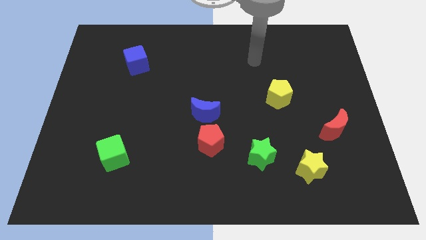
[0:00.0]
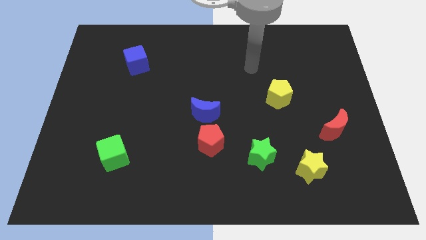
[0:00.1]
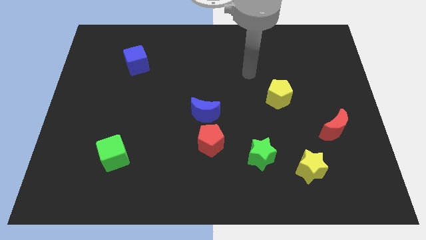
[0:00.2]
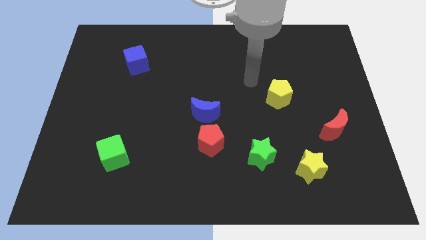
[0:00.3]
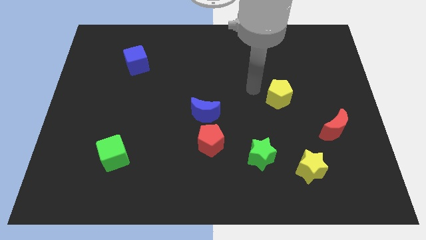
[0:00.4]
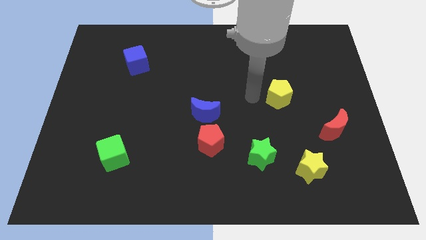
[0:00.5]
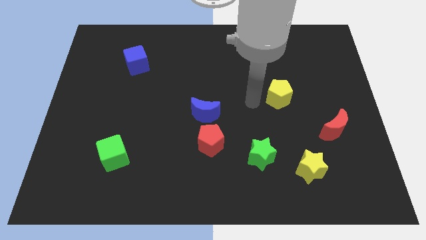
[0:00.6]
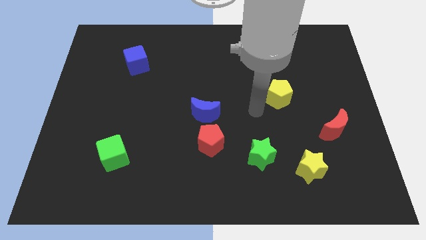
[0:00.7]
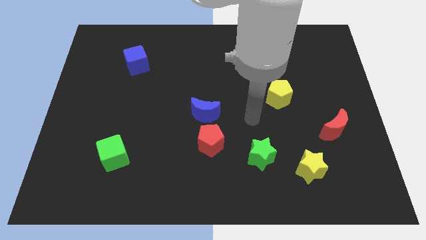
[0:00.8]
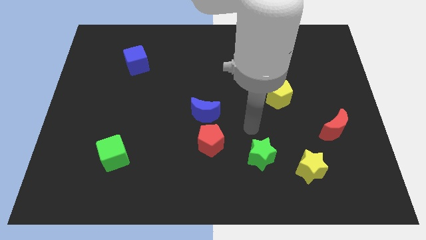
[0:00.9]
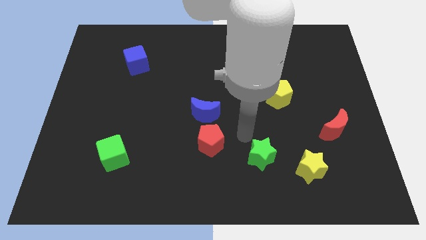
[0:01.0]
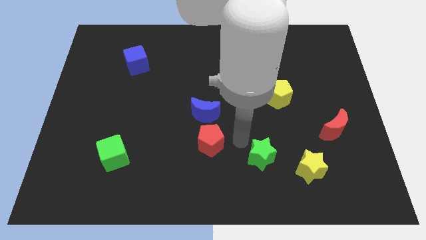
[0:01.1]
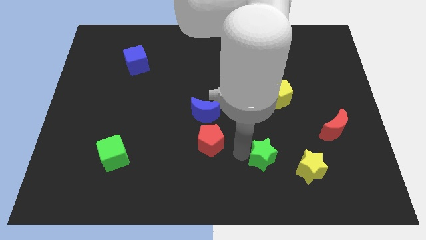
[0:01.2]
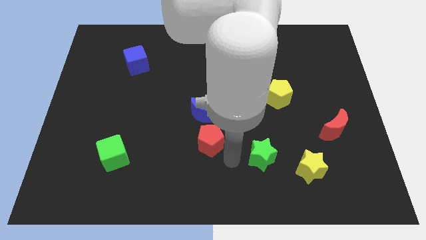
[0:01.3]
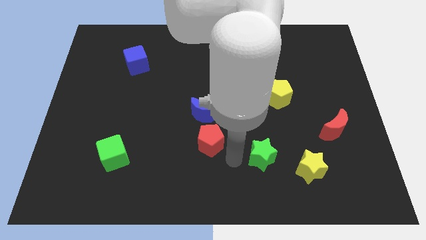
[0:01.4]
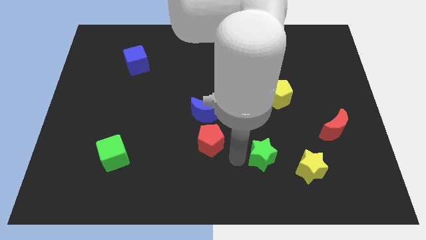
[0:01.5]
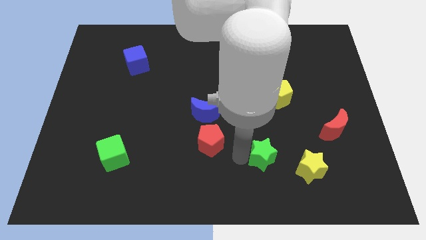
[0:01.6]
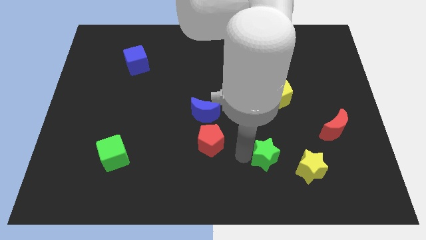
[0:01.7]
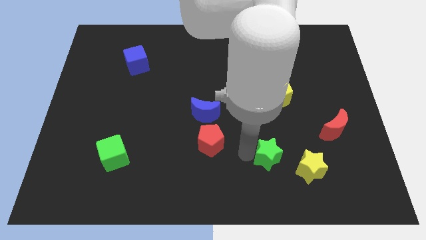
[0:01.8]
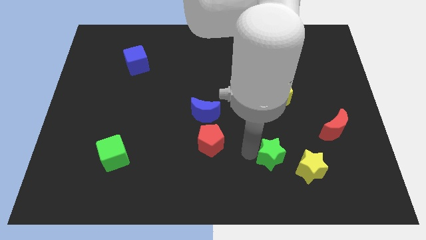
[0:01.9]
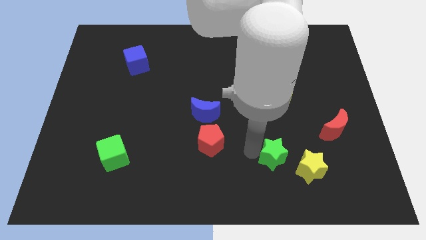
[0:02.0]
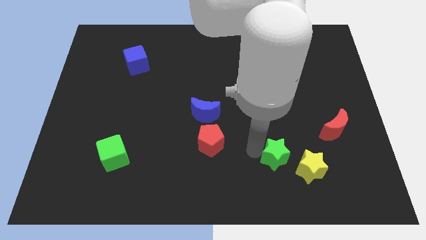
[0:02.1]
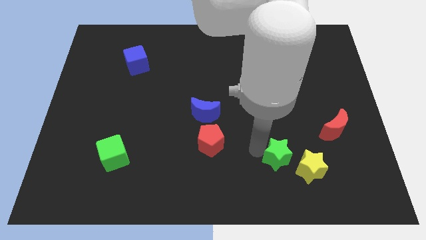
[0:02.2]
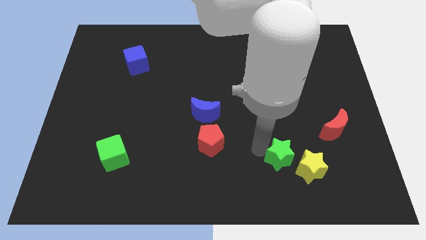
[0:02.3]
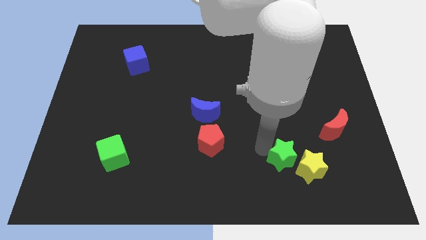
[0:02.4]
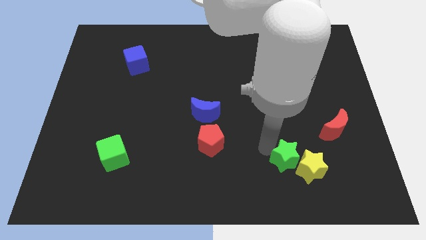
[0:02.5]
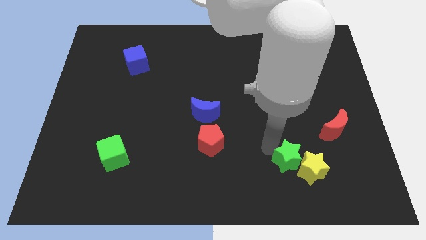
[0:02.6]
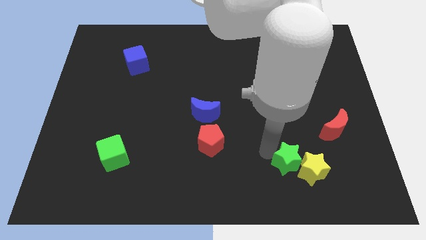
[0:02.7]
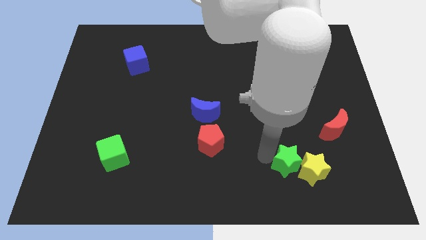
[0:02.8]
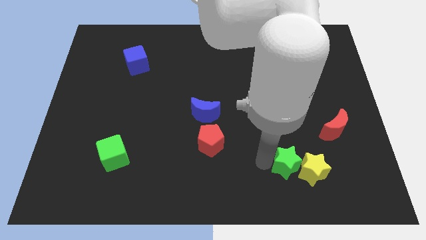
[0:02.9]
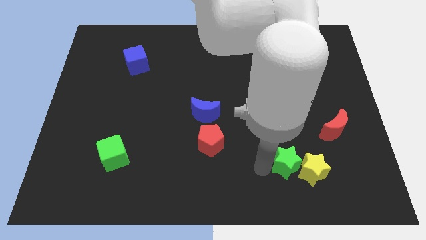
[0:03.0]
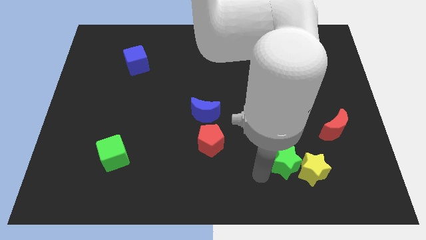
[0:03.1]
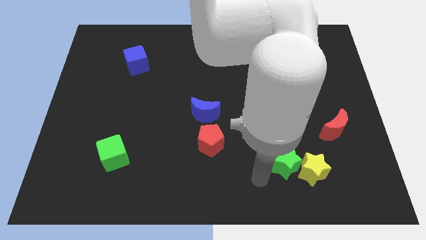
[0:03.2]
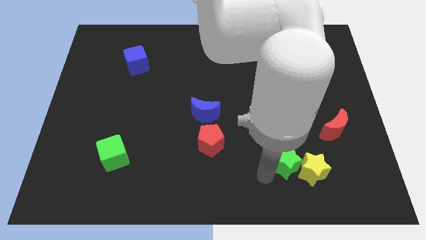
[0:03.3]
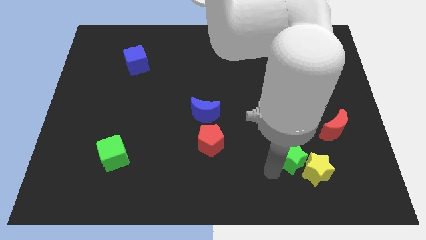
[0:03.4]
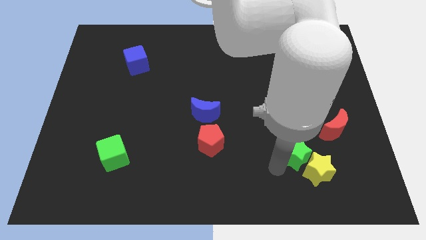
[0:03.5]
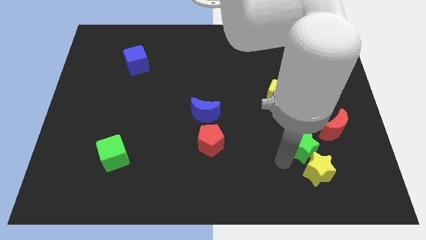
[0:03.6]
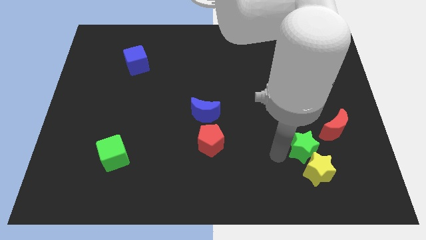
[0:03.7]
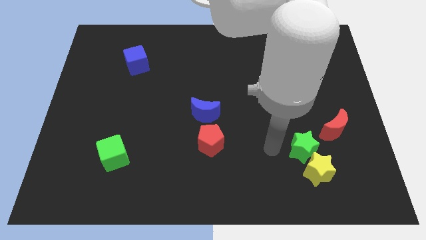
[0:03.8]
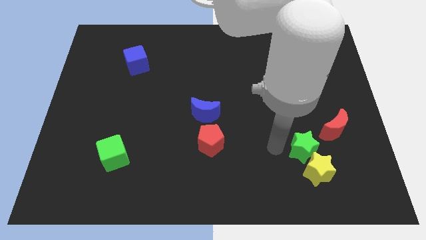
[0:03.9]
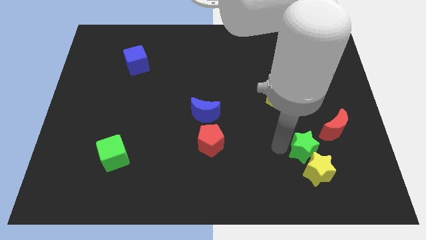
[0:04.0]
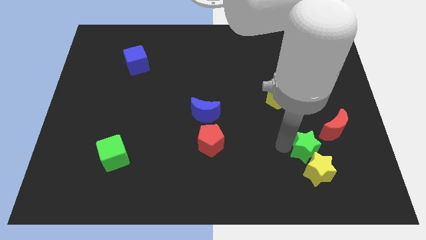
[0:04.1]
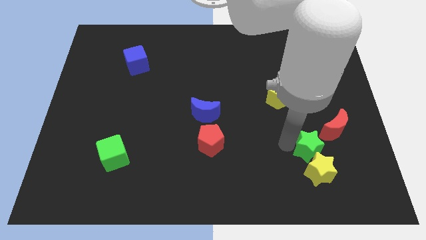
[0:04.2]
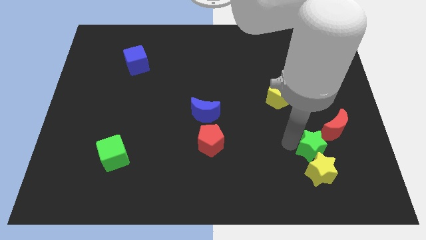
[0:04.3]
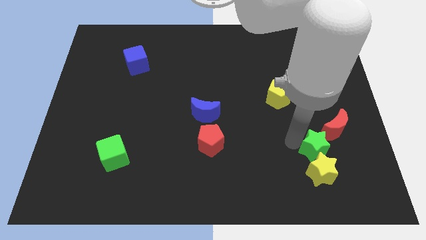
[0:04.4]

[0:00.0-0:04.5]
move the green star to the top right side of the yellow star

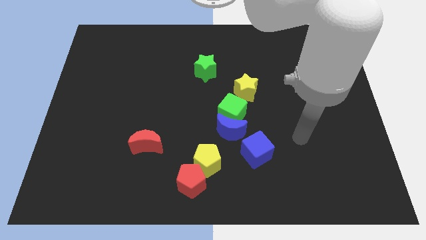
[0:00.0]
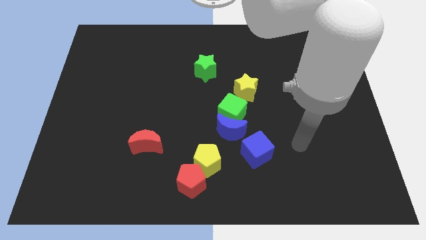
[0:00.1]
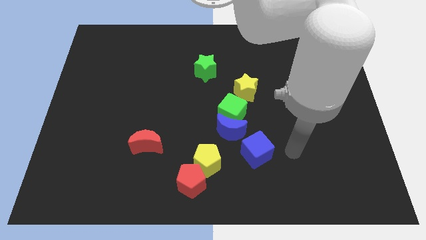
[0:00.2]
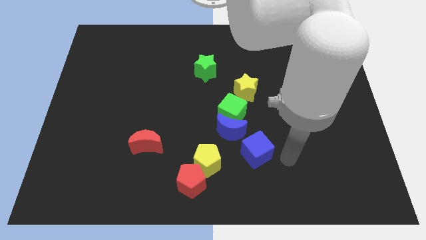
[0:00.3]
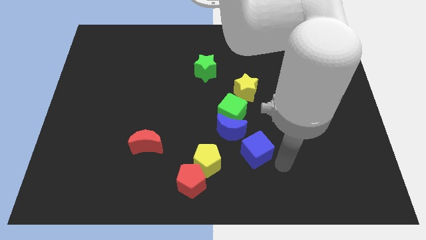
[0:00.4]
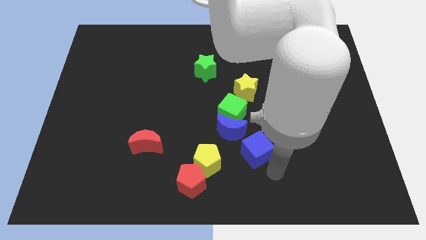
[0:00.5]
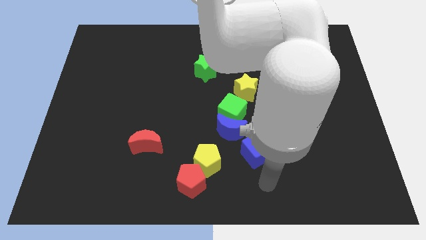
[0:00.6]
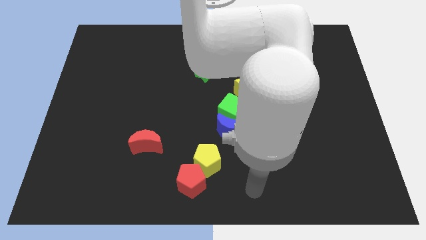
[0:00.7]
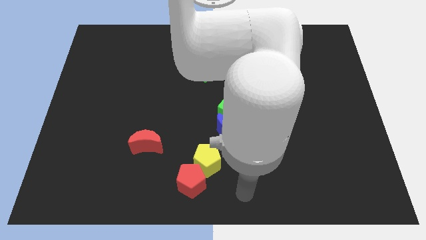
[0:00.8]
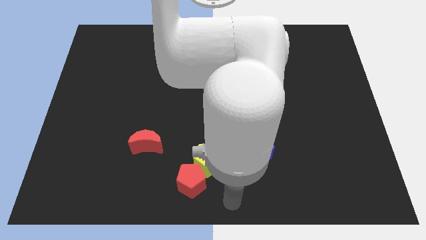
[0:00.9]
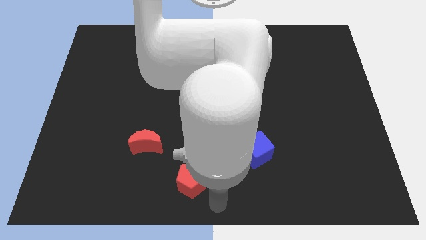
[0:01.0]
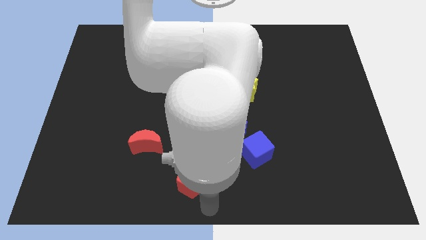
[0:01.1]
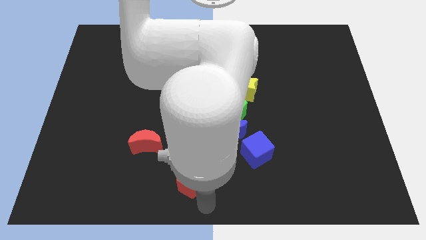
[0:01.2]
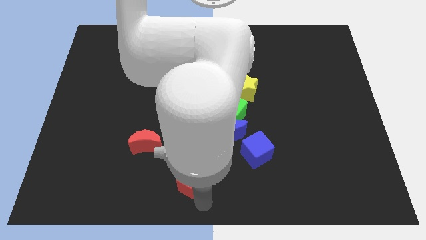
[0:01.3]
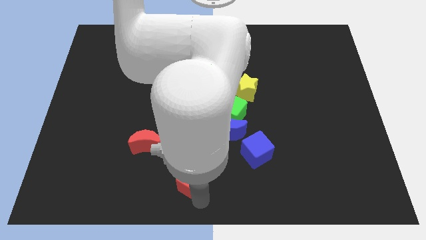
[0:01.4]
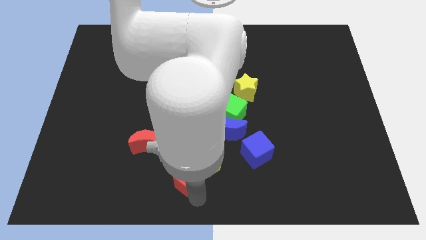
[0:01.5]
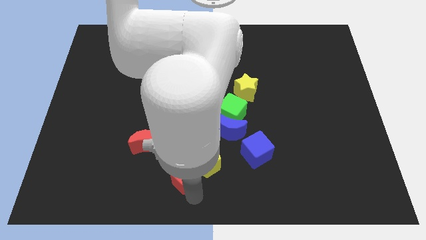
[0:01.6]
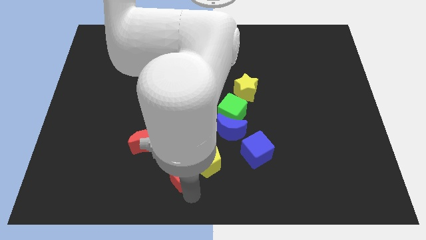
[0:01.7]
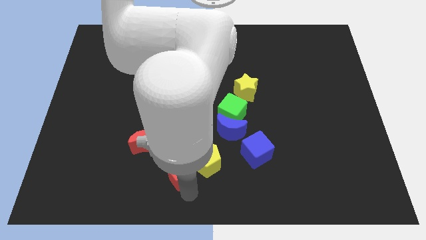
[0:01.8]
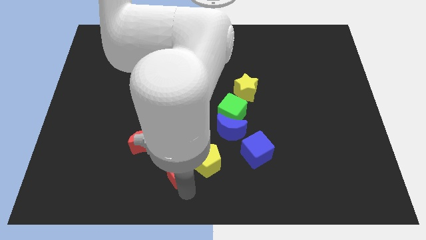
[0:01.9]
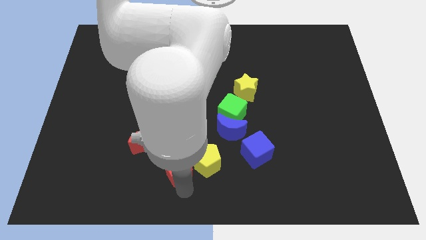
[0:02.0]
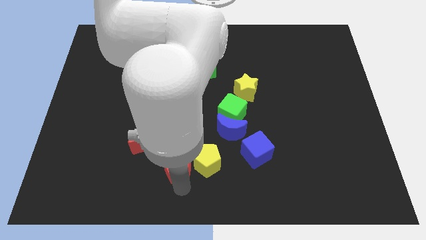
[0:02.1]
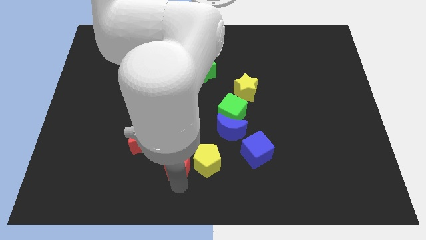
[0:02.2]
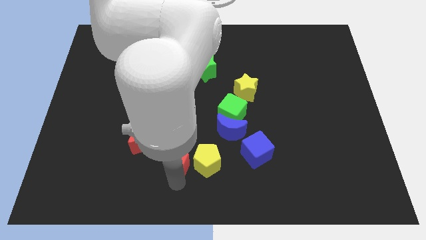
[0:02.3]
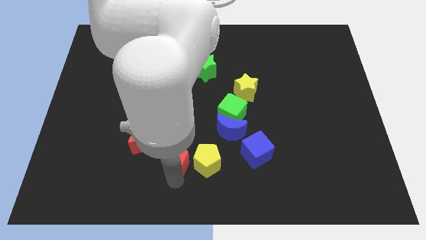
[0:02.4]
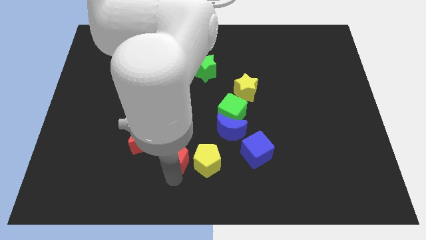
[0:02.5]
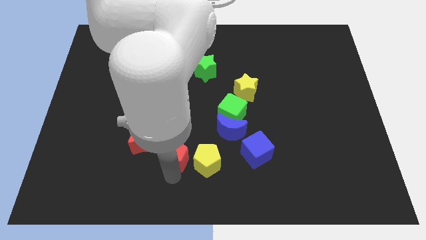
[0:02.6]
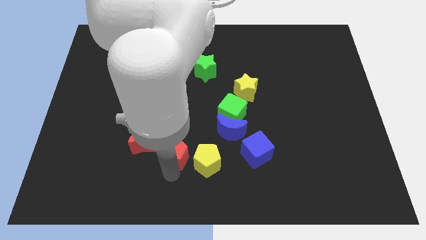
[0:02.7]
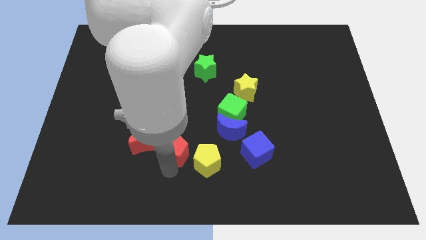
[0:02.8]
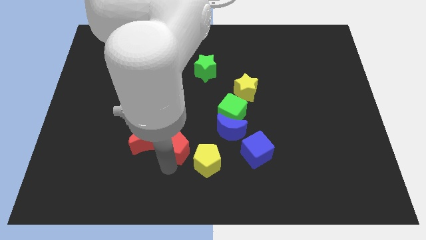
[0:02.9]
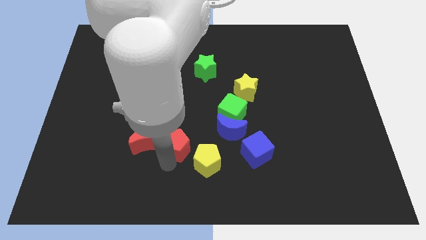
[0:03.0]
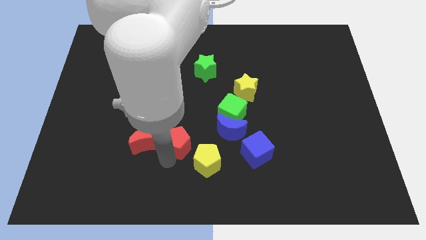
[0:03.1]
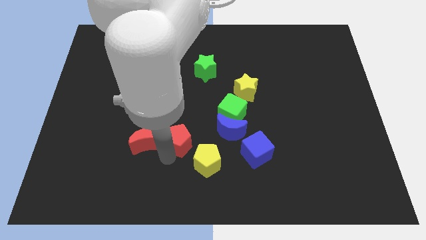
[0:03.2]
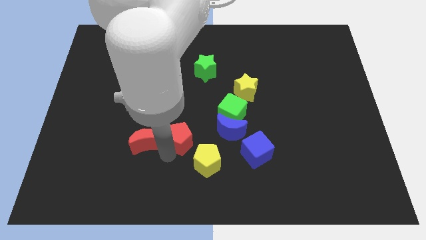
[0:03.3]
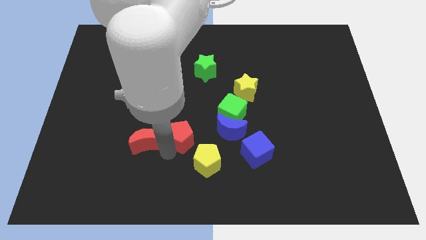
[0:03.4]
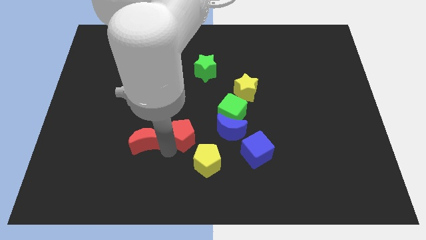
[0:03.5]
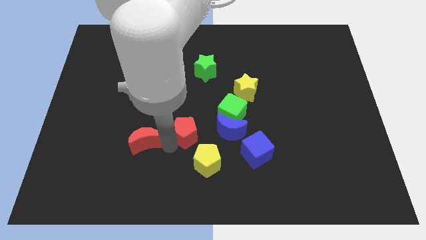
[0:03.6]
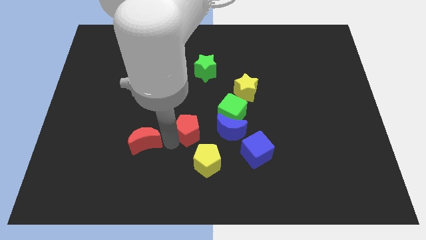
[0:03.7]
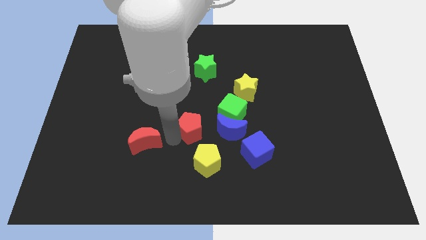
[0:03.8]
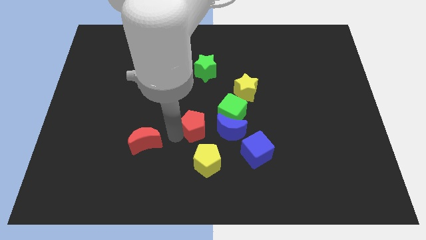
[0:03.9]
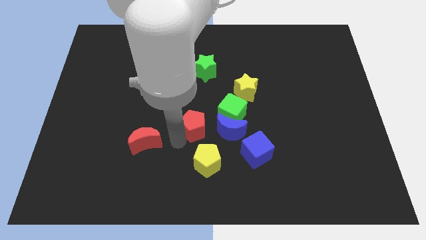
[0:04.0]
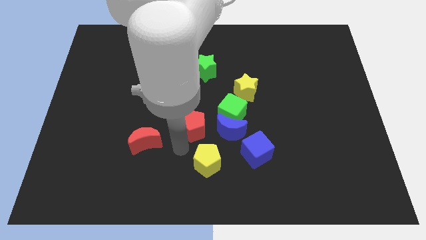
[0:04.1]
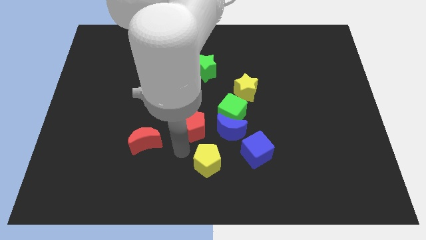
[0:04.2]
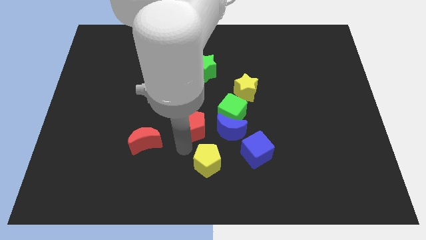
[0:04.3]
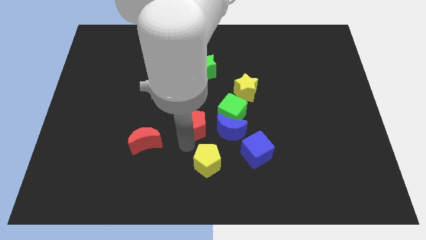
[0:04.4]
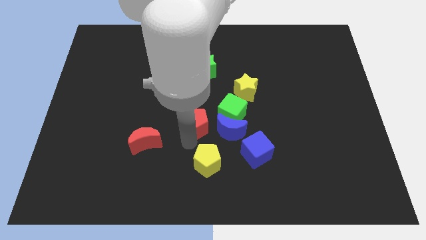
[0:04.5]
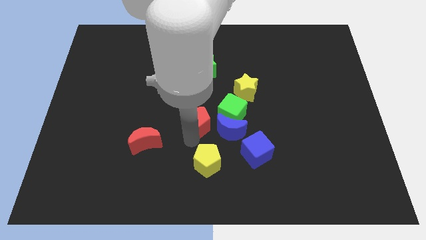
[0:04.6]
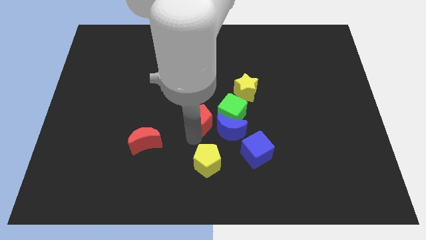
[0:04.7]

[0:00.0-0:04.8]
slide the red pentagon to the bottom side of the green star
